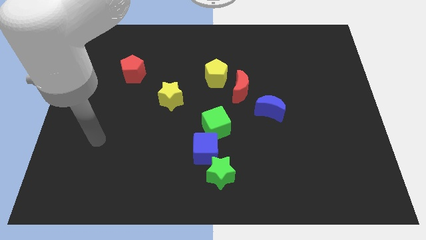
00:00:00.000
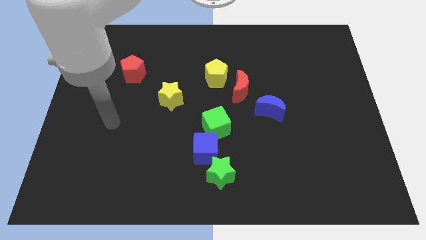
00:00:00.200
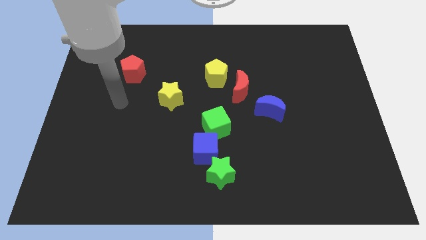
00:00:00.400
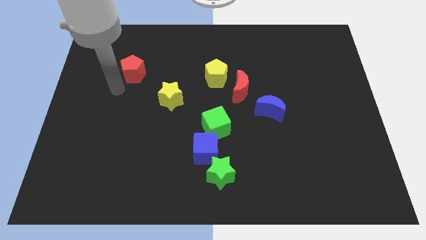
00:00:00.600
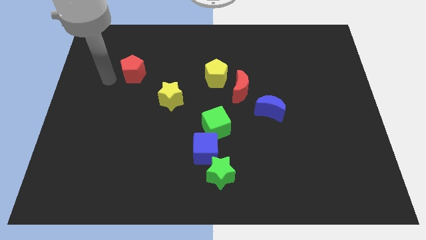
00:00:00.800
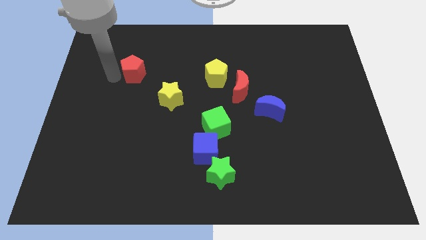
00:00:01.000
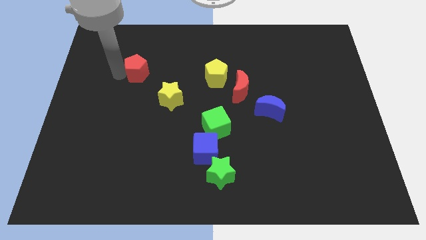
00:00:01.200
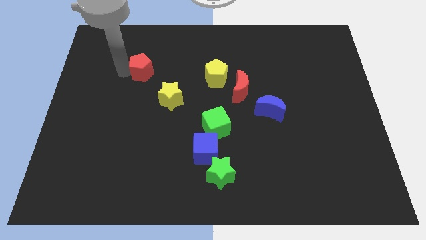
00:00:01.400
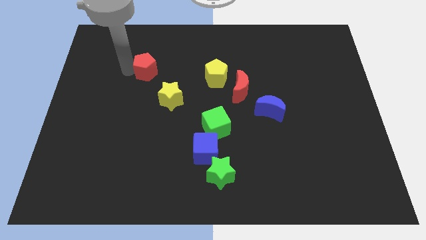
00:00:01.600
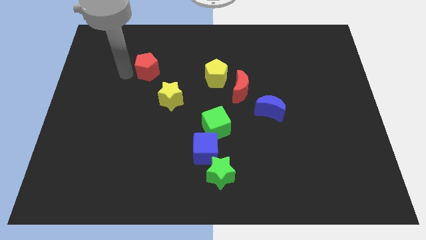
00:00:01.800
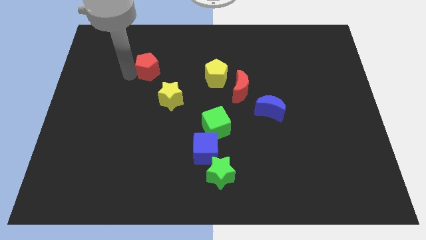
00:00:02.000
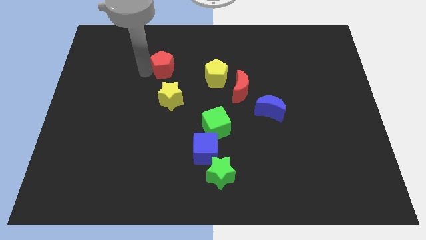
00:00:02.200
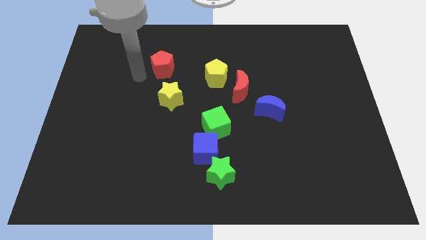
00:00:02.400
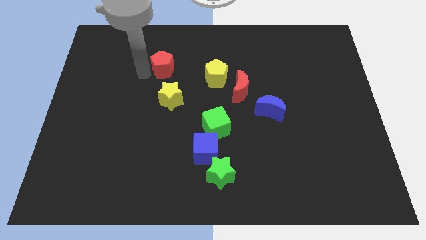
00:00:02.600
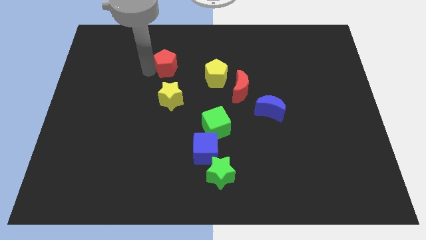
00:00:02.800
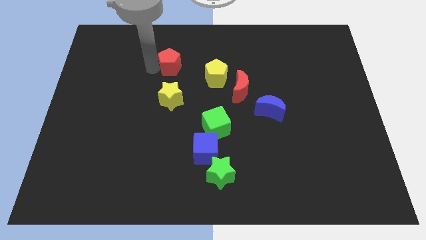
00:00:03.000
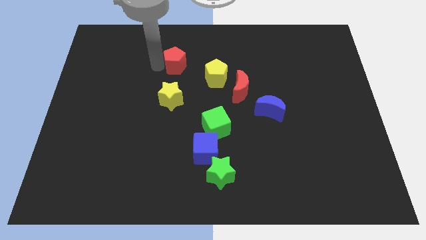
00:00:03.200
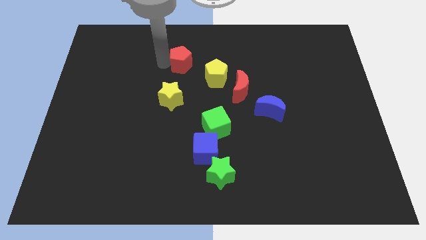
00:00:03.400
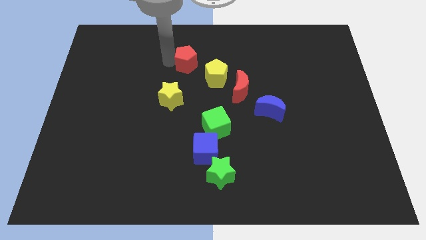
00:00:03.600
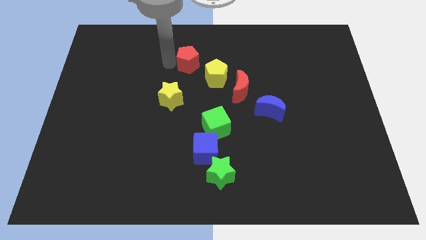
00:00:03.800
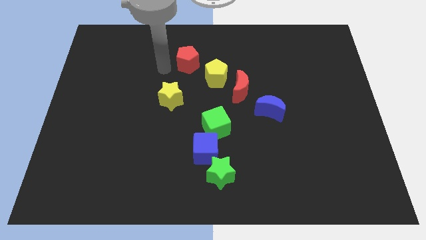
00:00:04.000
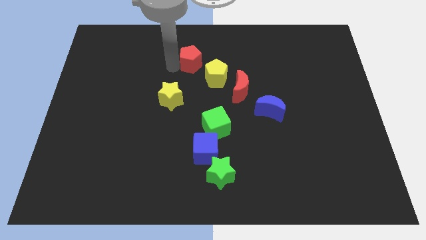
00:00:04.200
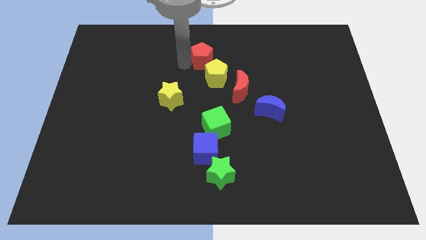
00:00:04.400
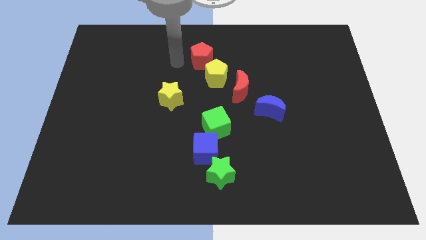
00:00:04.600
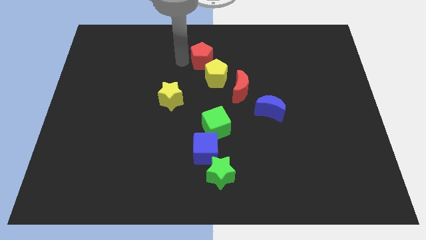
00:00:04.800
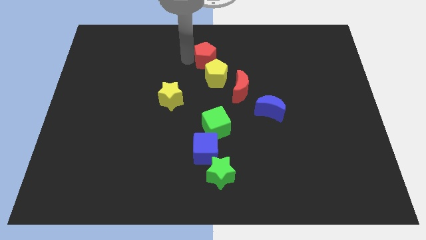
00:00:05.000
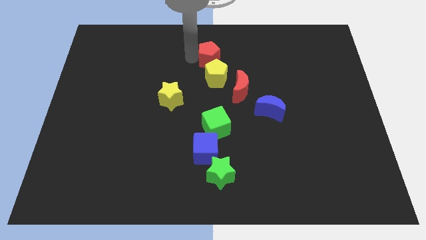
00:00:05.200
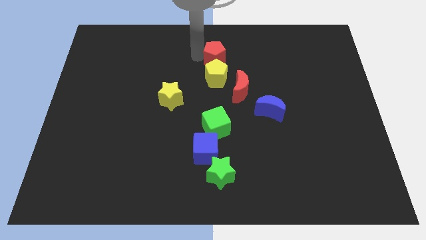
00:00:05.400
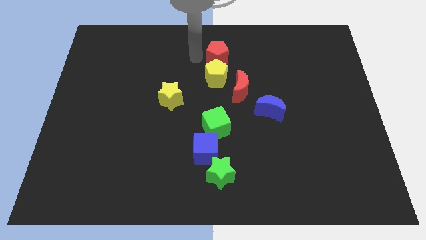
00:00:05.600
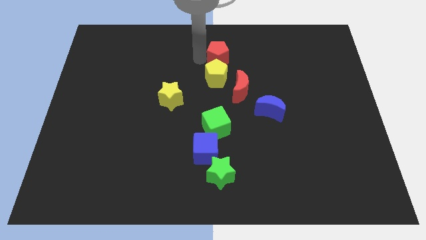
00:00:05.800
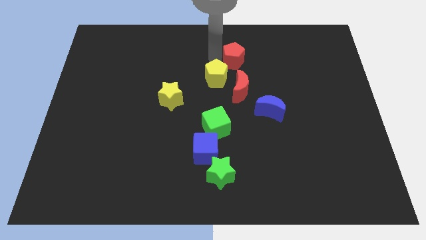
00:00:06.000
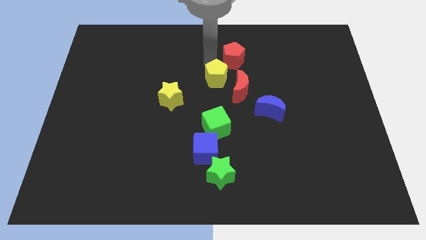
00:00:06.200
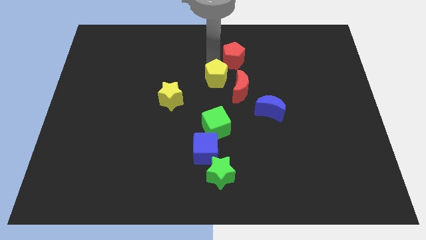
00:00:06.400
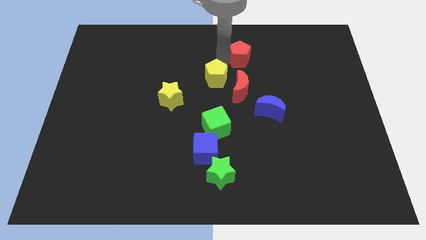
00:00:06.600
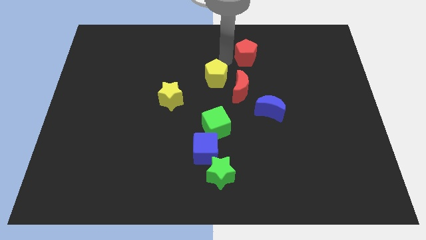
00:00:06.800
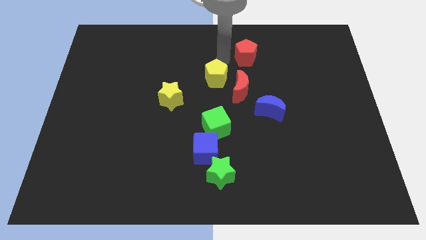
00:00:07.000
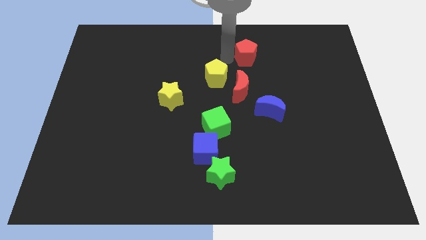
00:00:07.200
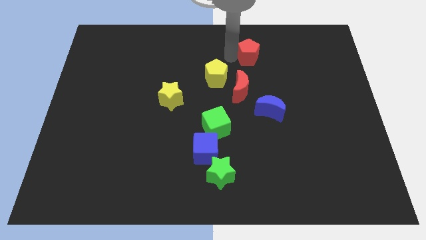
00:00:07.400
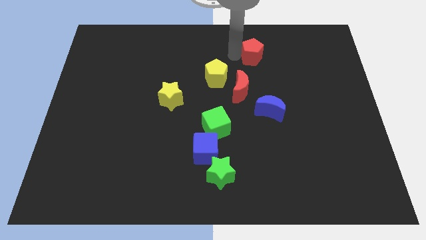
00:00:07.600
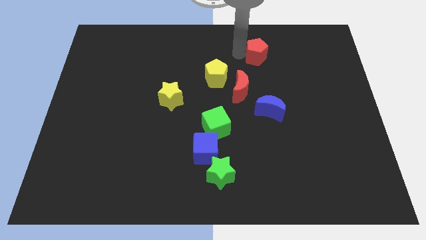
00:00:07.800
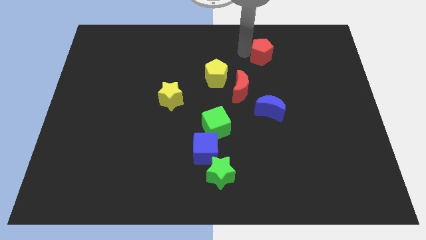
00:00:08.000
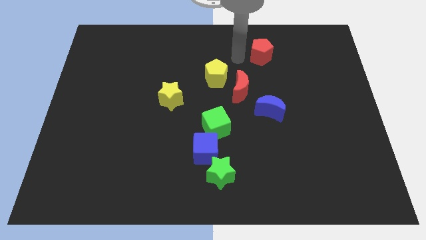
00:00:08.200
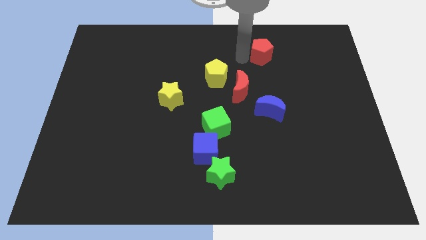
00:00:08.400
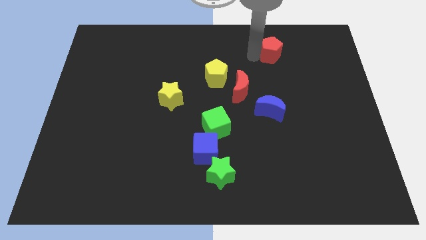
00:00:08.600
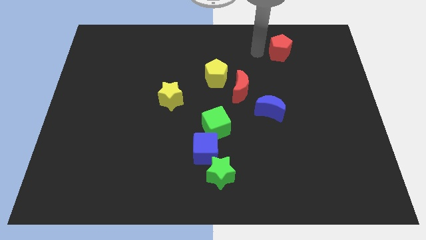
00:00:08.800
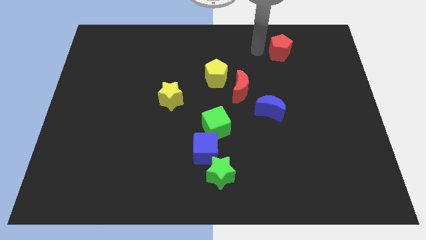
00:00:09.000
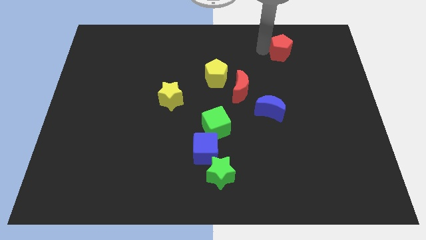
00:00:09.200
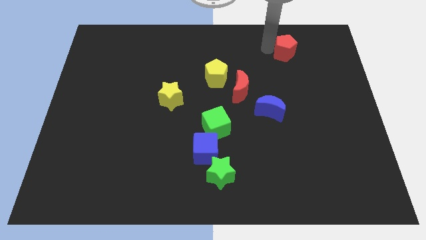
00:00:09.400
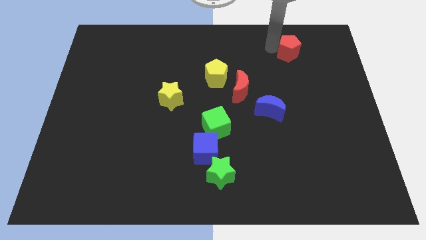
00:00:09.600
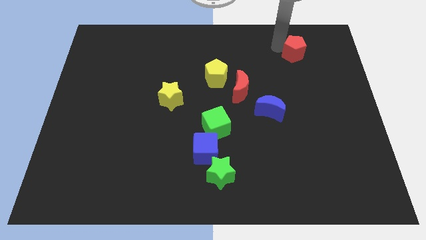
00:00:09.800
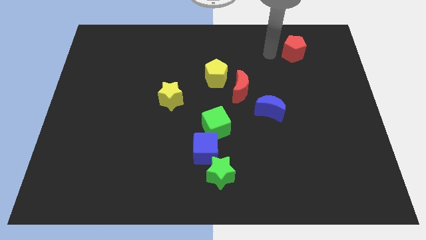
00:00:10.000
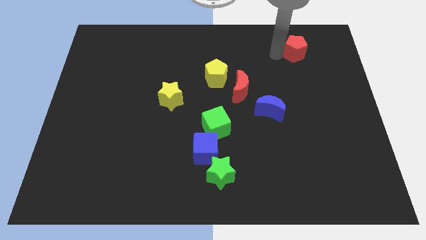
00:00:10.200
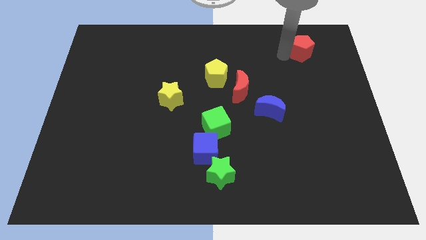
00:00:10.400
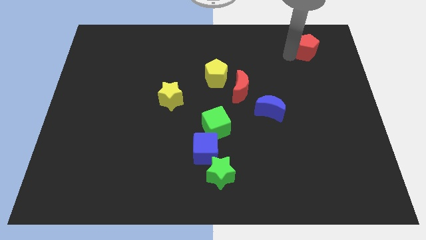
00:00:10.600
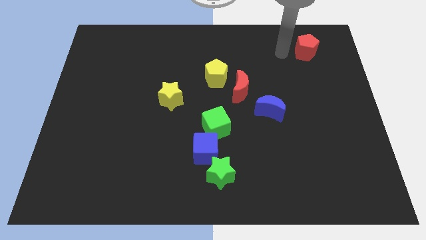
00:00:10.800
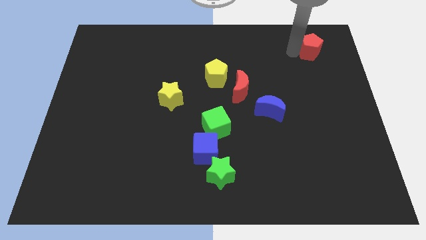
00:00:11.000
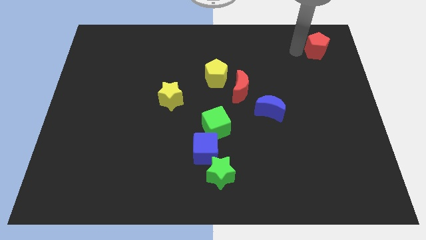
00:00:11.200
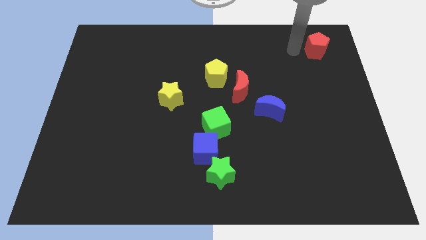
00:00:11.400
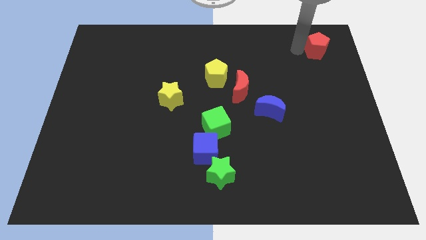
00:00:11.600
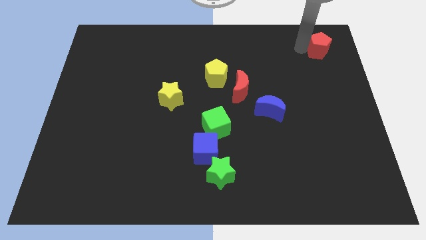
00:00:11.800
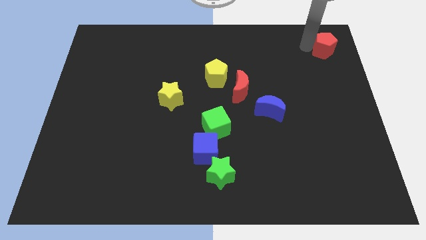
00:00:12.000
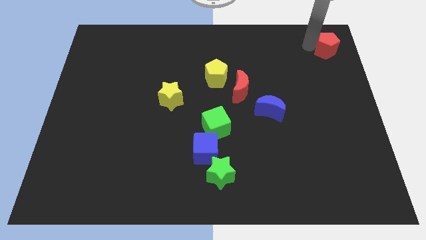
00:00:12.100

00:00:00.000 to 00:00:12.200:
move the red pentagon to the top right corner

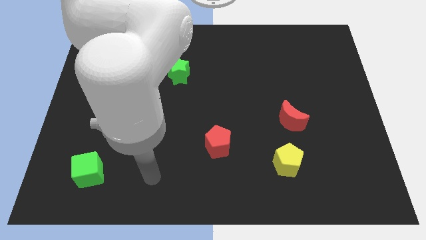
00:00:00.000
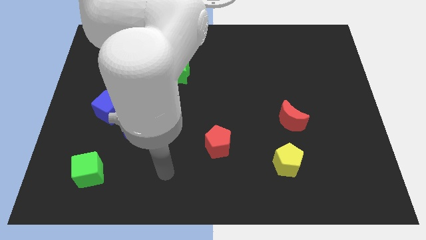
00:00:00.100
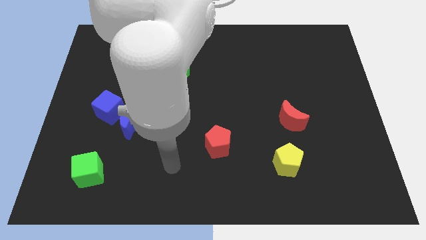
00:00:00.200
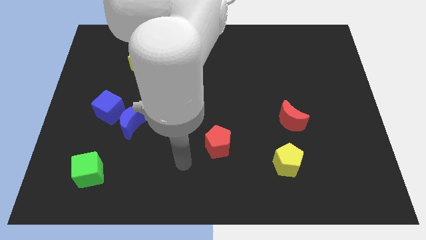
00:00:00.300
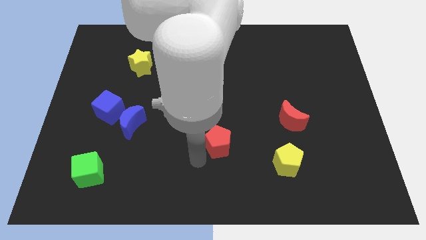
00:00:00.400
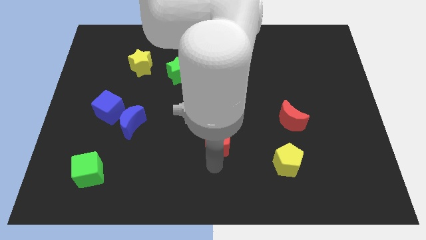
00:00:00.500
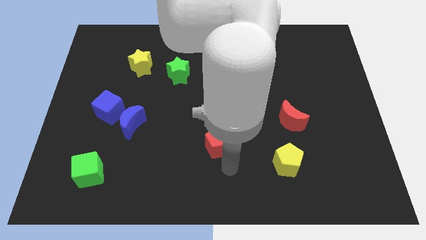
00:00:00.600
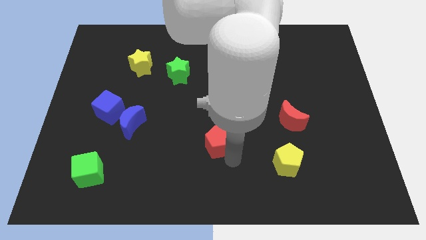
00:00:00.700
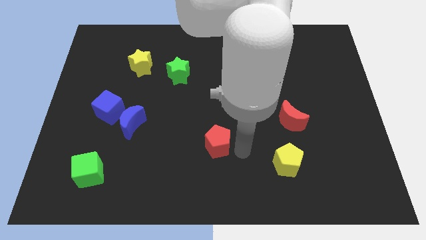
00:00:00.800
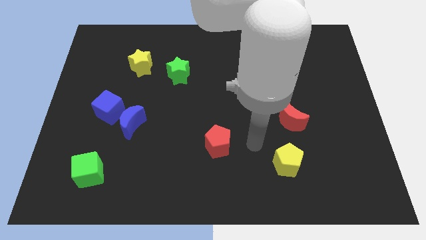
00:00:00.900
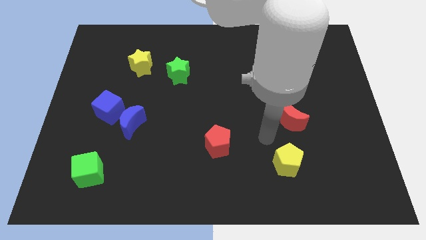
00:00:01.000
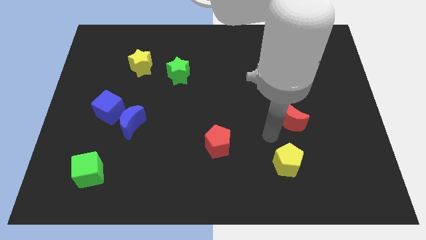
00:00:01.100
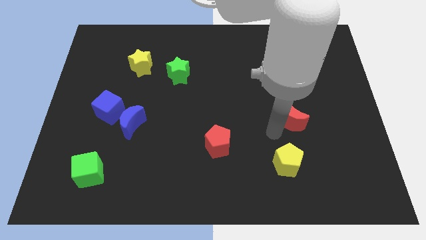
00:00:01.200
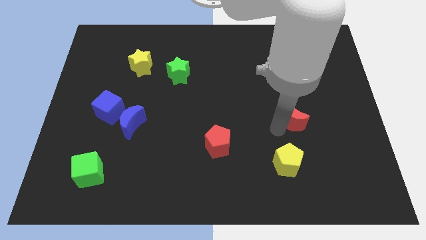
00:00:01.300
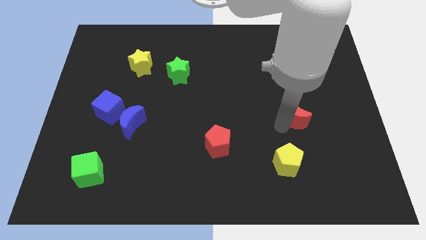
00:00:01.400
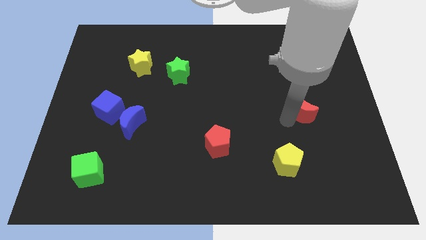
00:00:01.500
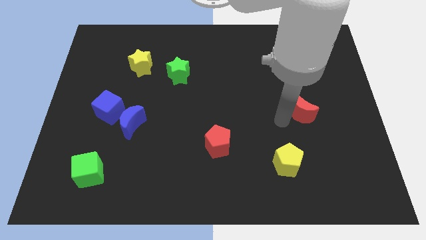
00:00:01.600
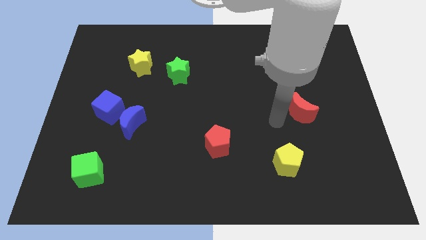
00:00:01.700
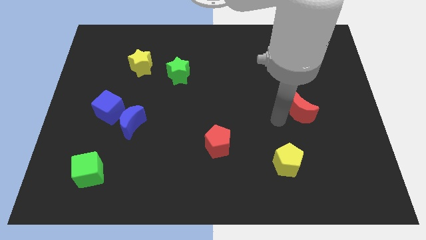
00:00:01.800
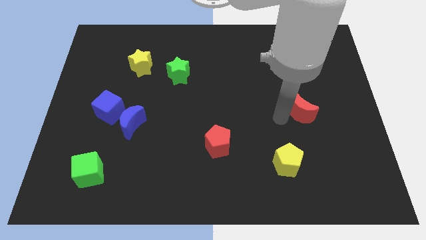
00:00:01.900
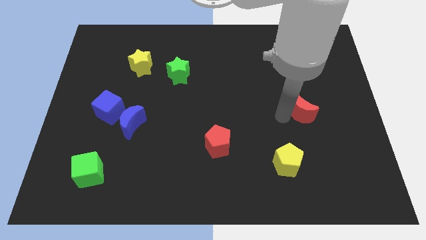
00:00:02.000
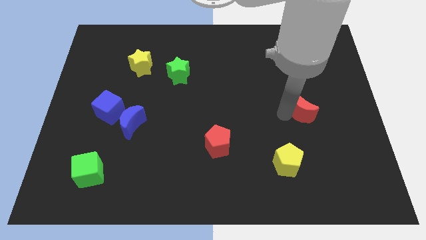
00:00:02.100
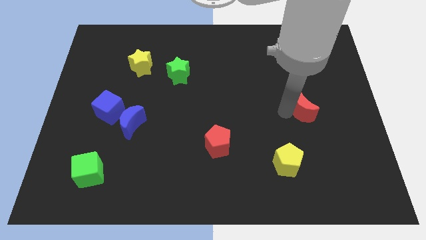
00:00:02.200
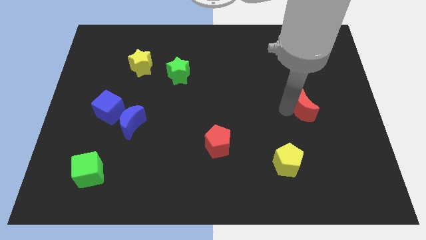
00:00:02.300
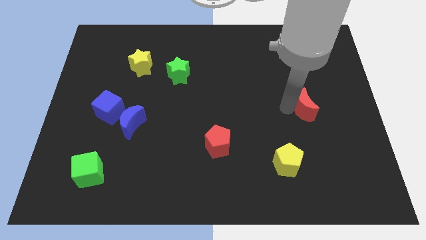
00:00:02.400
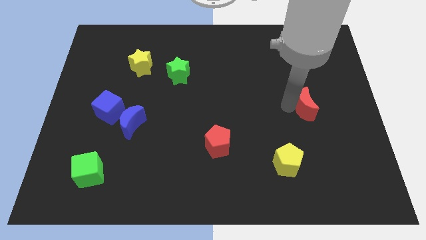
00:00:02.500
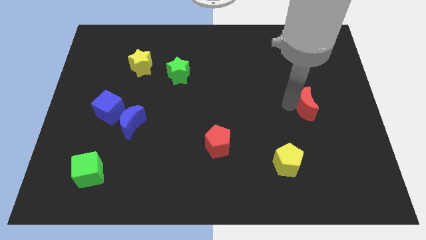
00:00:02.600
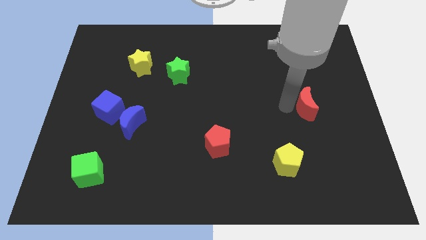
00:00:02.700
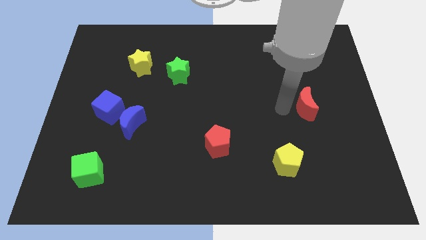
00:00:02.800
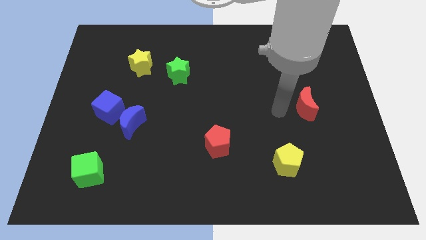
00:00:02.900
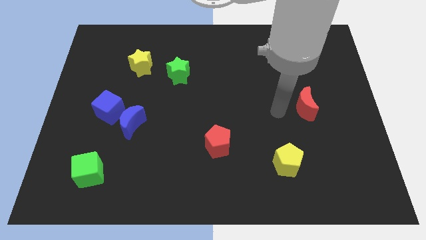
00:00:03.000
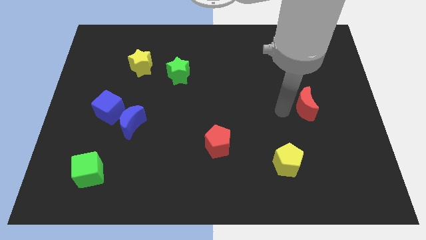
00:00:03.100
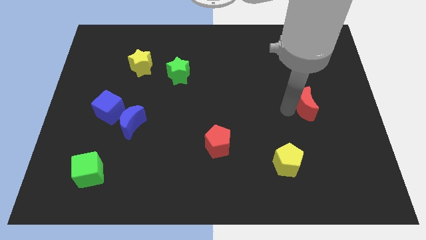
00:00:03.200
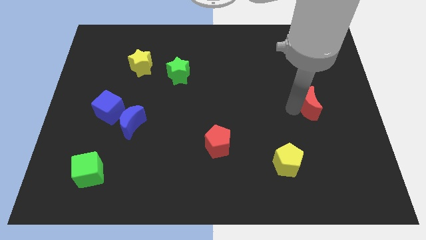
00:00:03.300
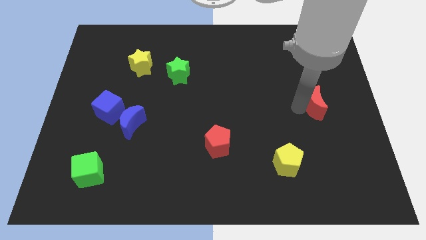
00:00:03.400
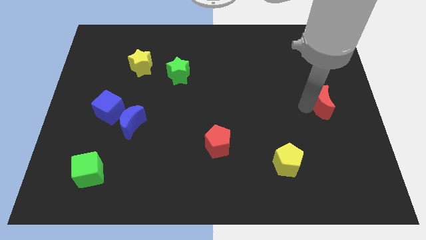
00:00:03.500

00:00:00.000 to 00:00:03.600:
move the red moon to the right side of the board
